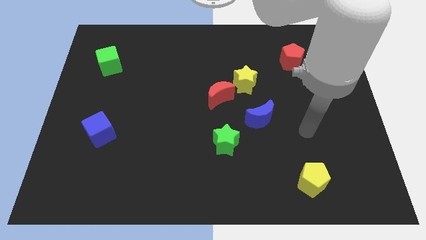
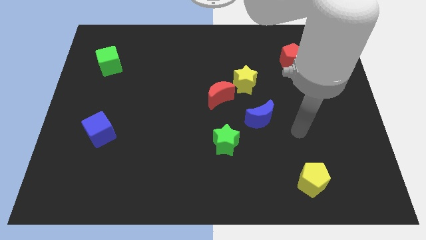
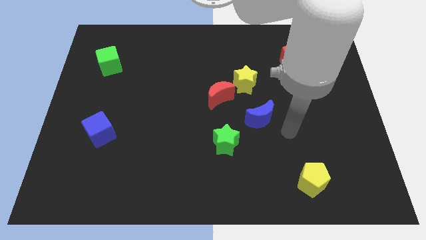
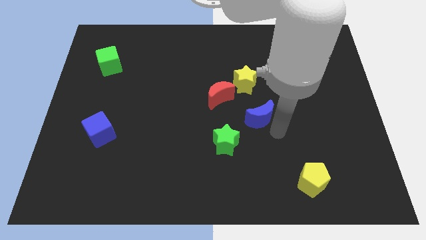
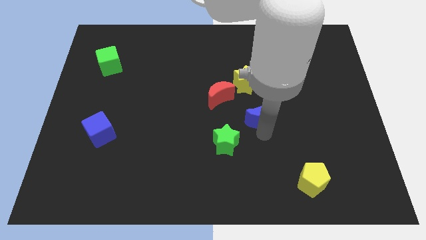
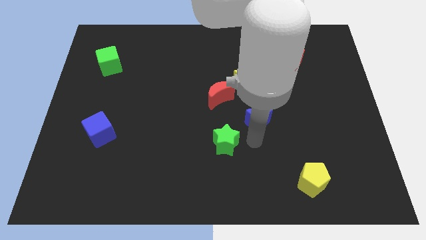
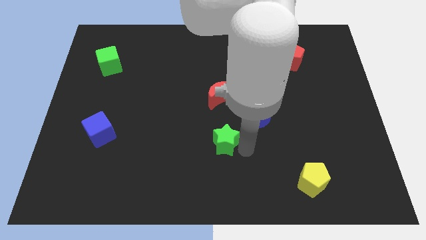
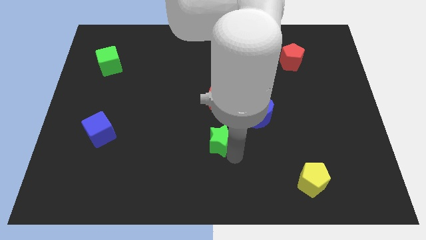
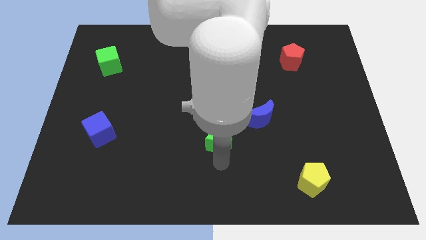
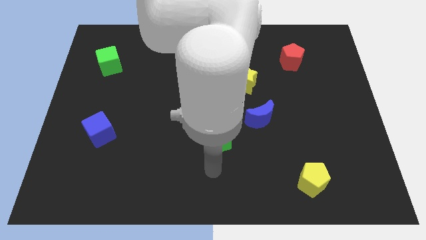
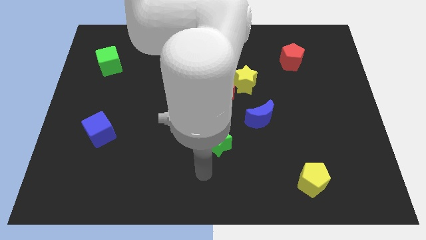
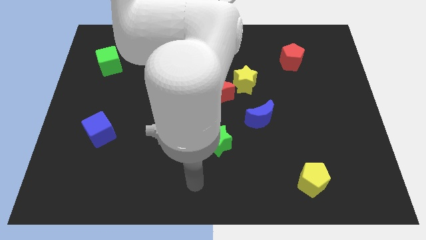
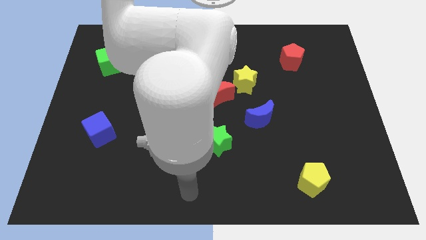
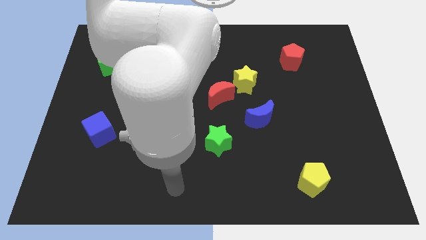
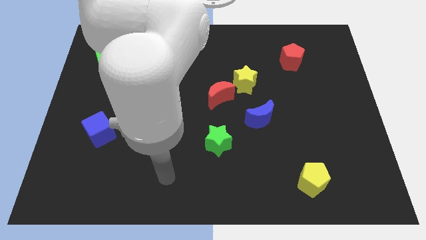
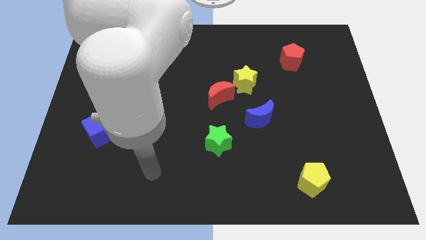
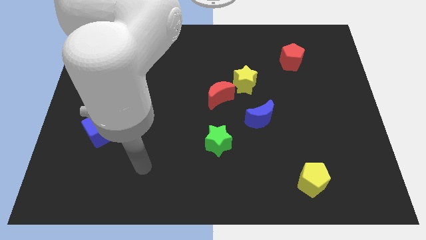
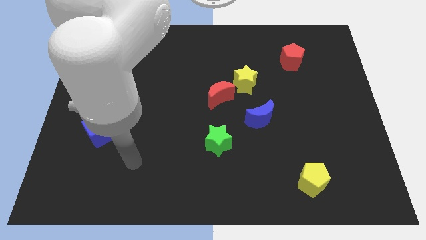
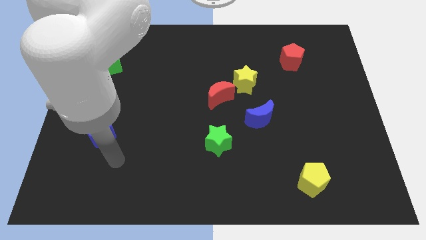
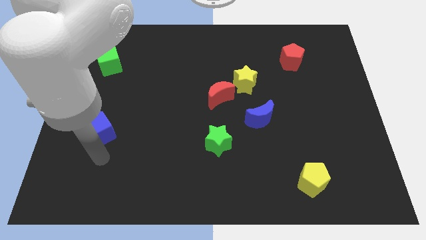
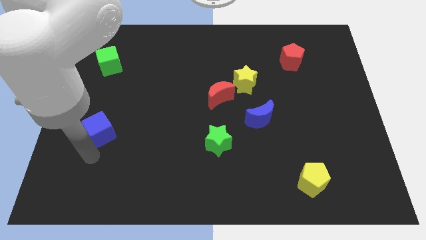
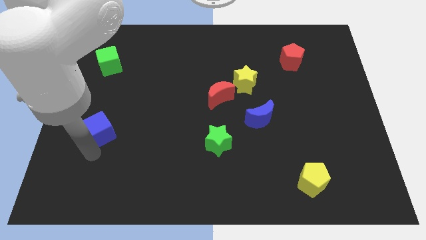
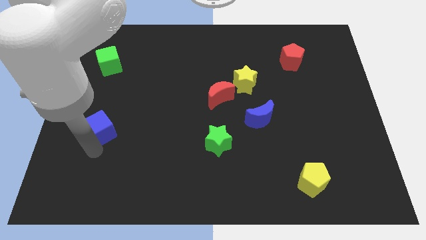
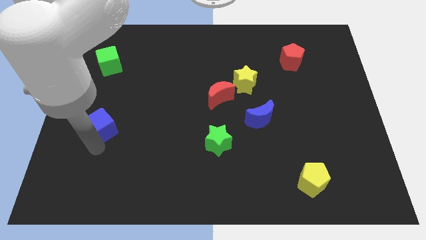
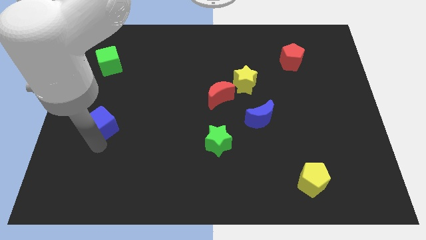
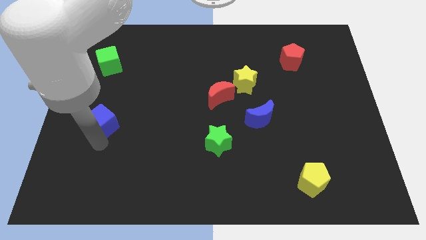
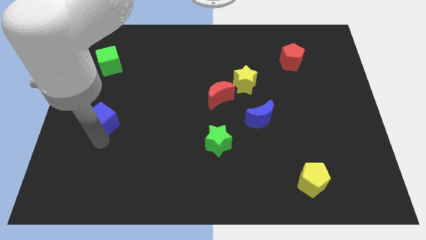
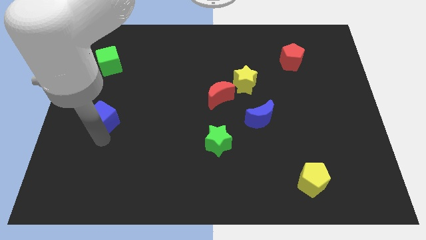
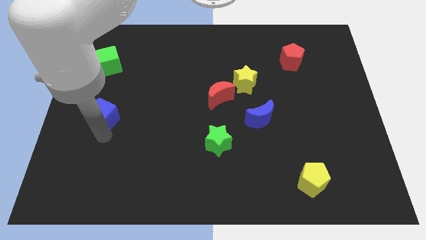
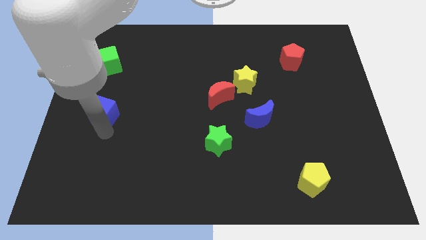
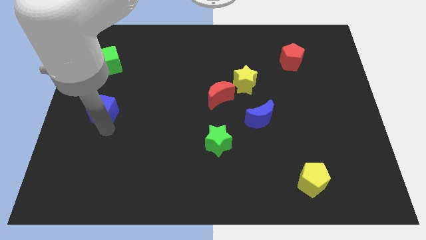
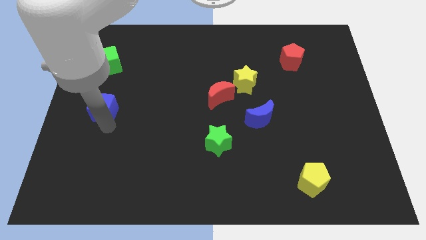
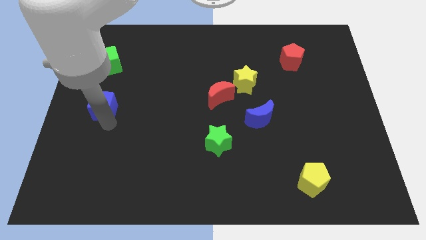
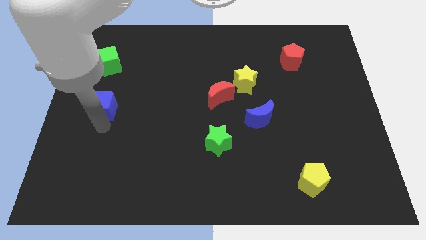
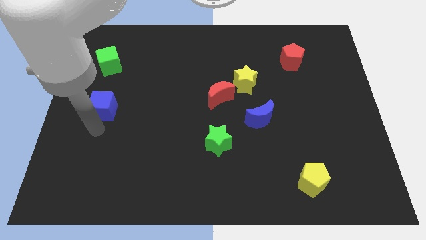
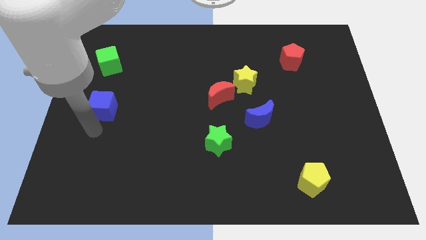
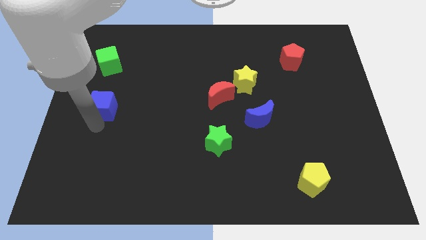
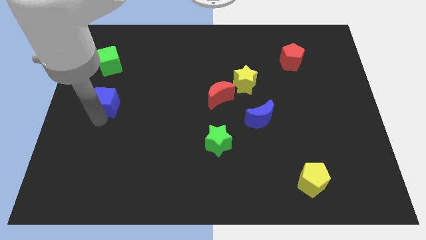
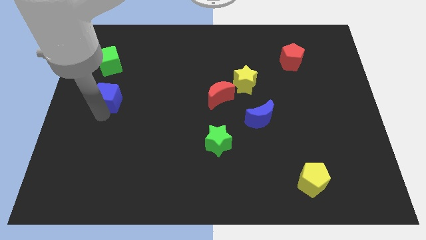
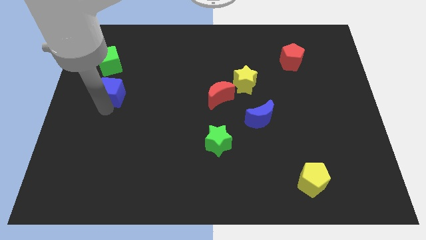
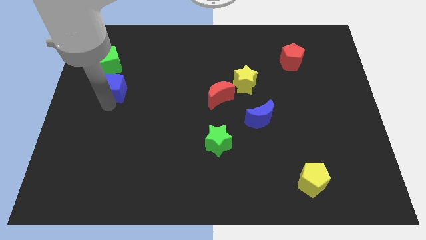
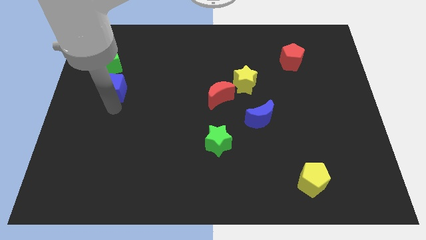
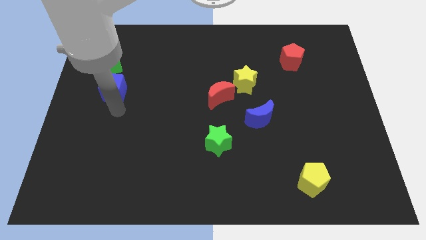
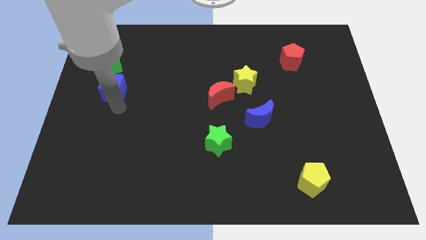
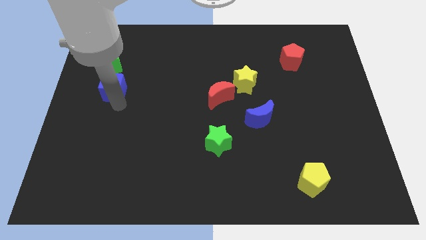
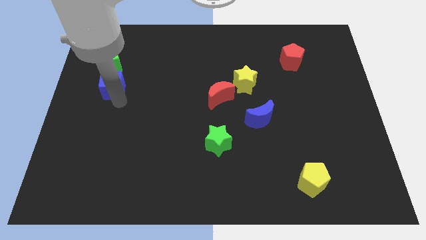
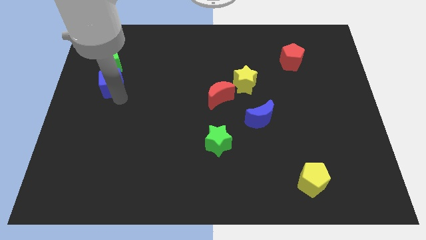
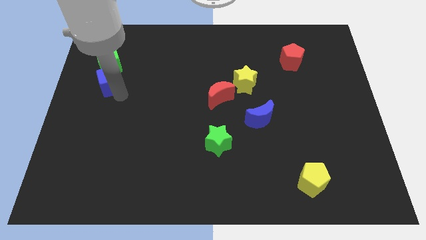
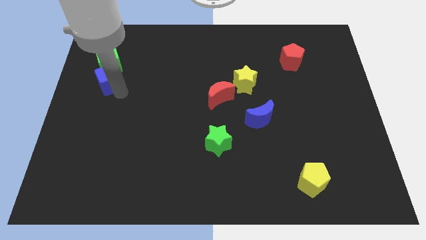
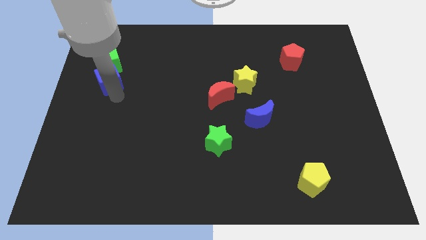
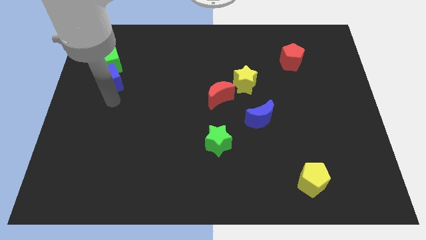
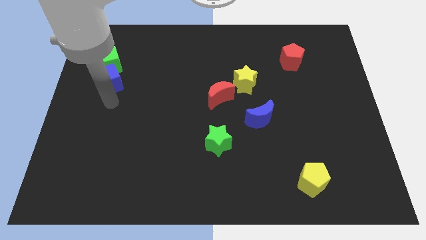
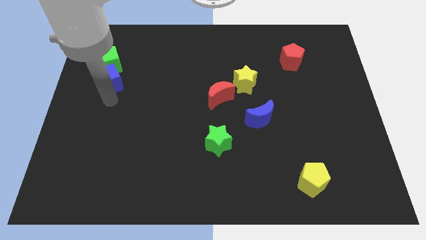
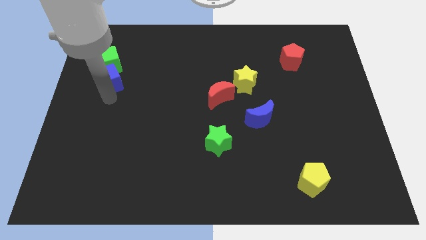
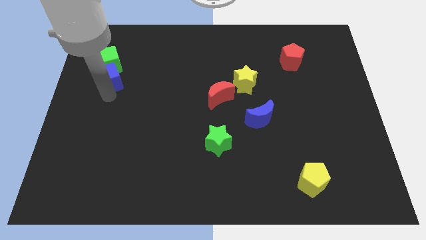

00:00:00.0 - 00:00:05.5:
slide the blue cube next to the green cube

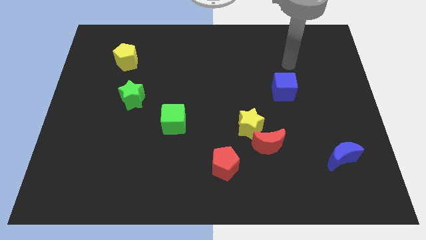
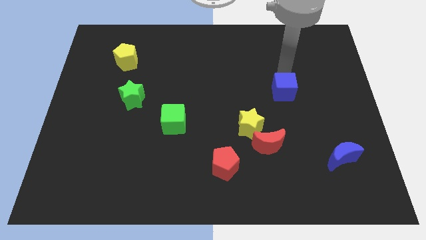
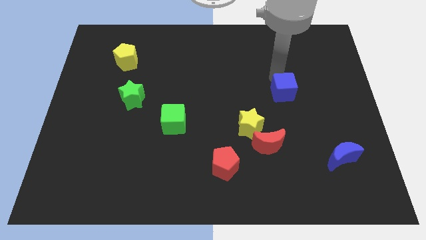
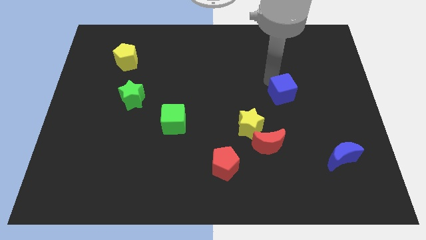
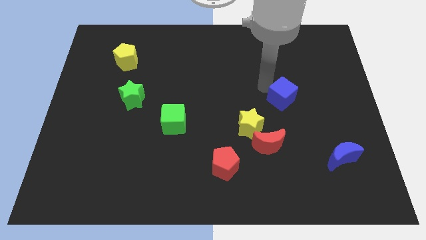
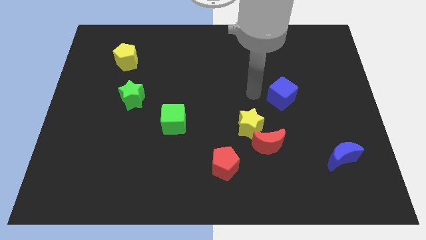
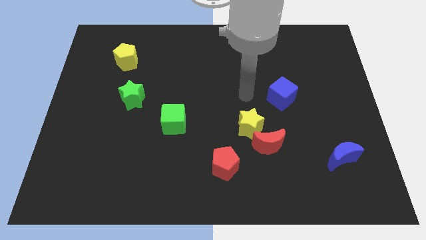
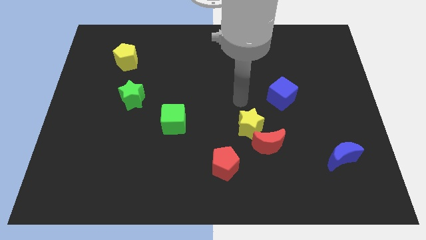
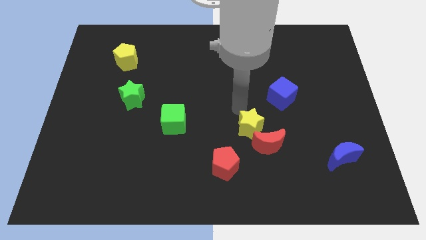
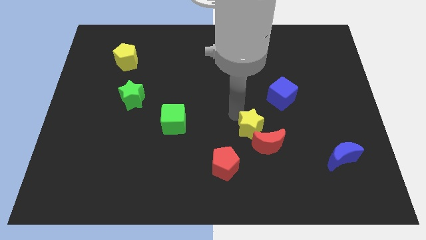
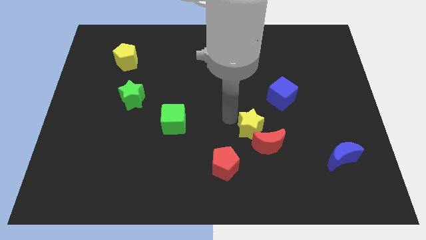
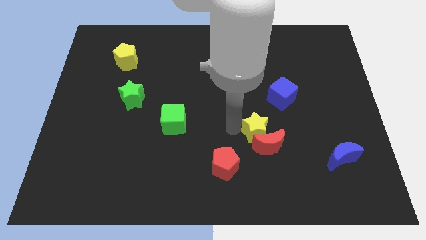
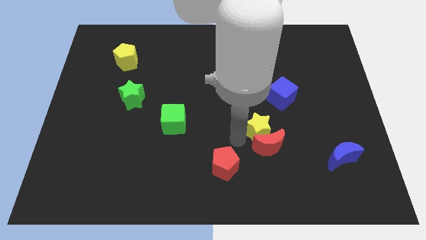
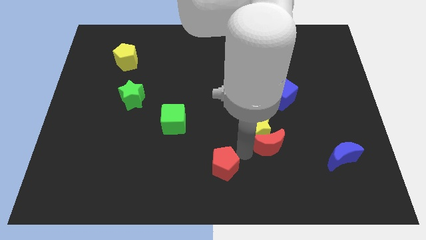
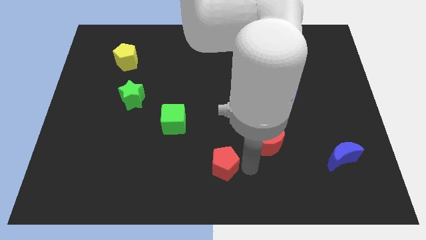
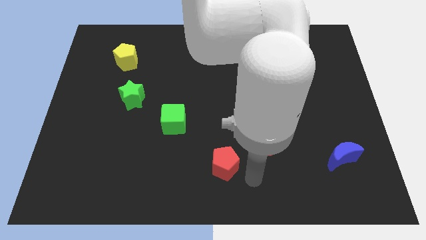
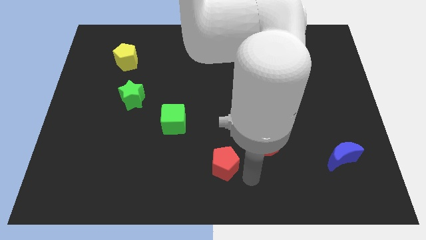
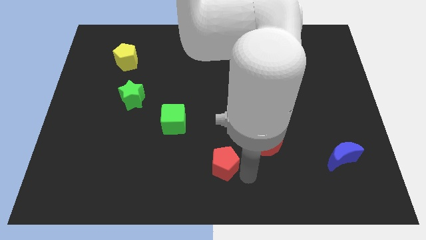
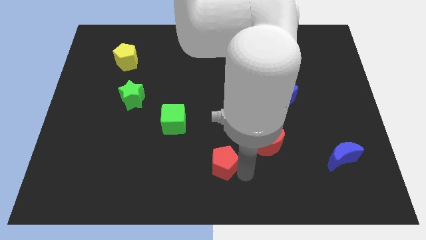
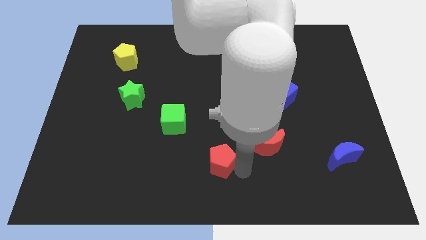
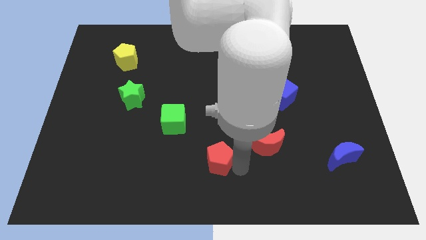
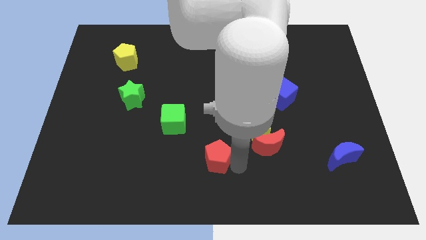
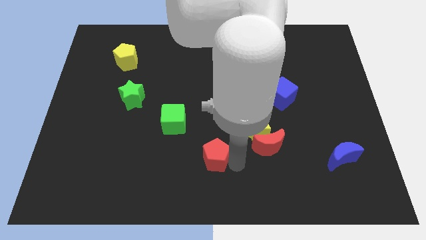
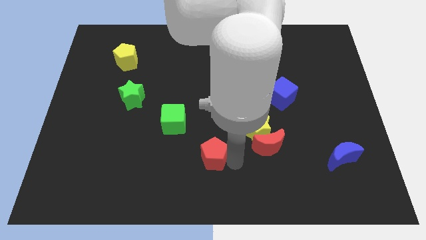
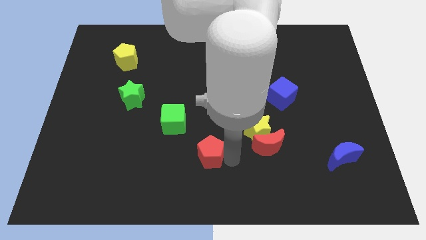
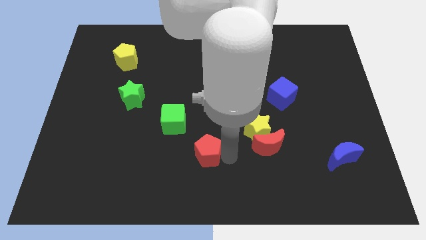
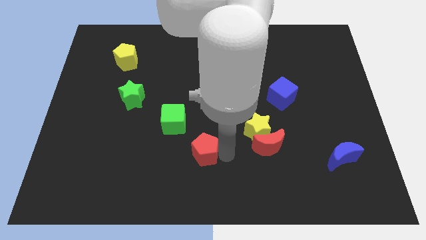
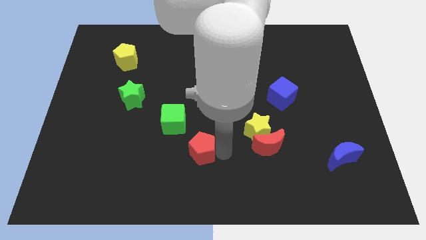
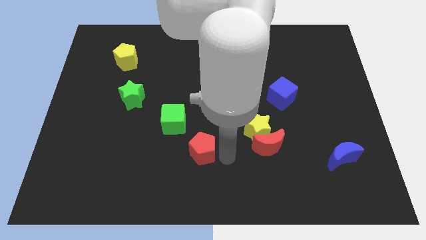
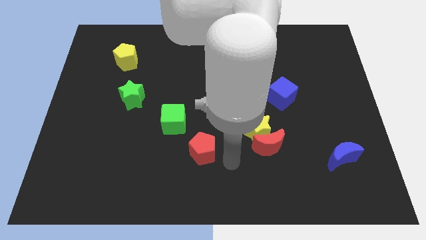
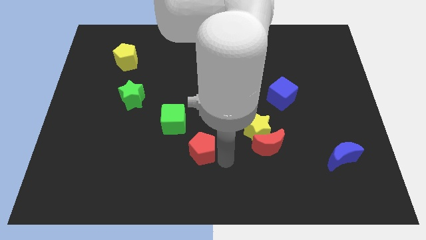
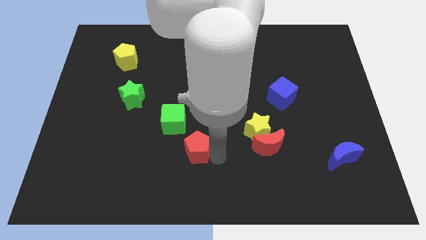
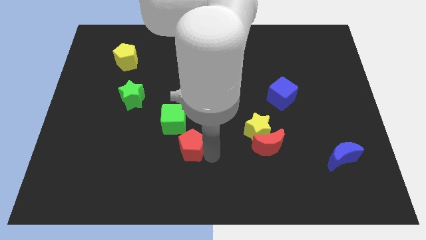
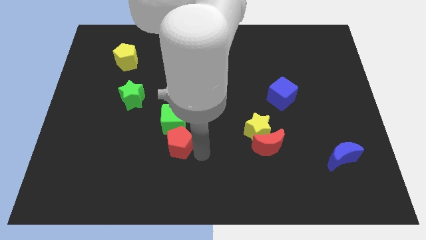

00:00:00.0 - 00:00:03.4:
put the red pentagon close to the green cube
